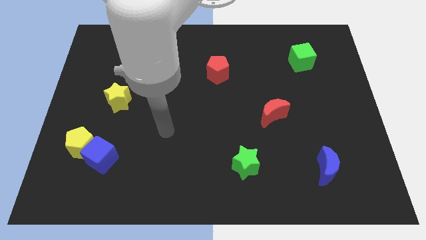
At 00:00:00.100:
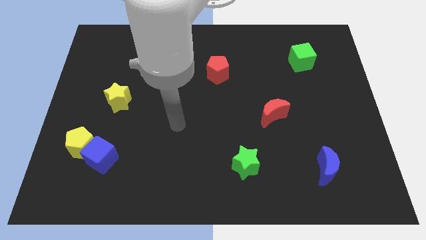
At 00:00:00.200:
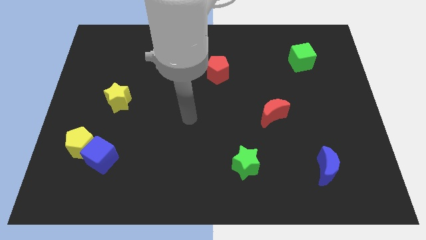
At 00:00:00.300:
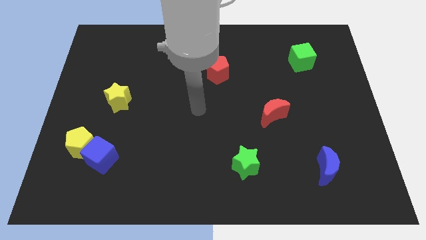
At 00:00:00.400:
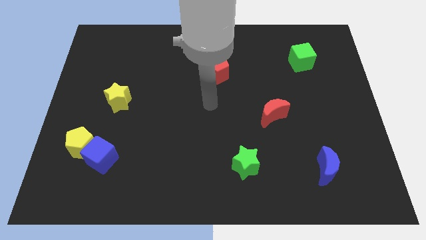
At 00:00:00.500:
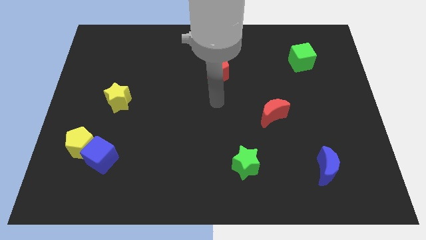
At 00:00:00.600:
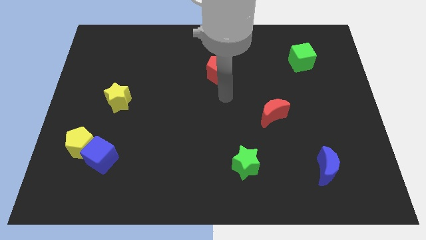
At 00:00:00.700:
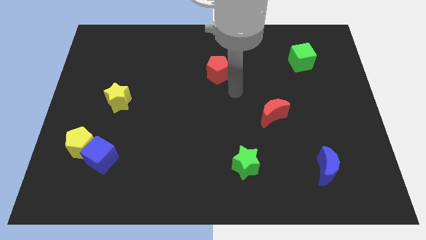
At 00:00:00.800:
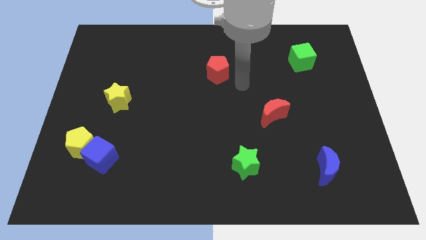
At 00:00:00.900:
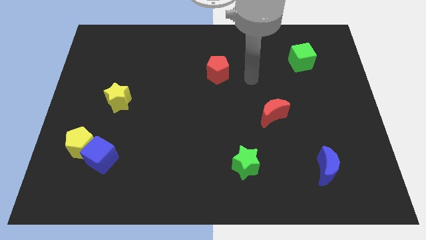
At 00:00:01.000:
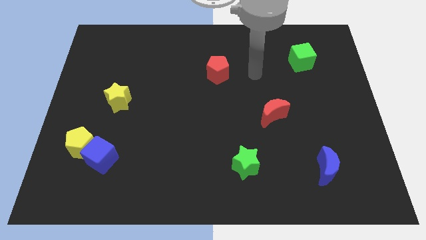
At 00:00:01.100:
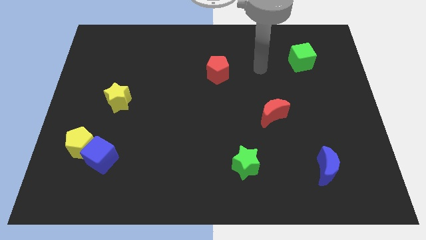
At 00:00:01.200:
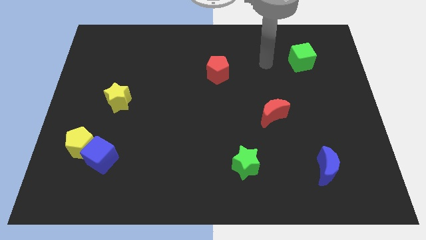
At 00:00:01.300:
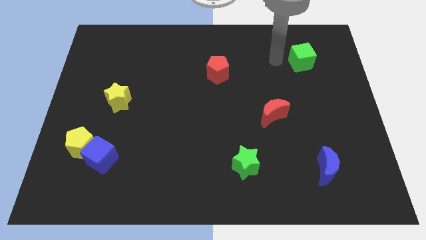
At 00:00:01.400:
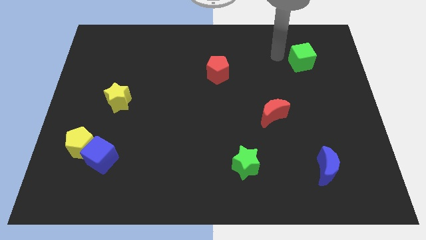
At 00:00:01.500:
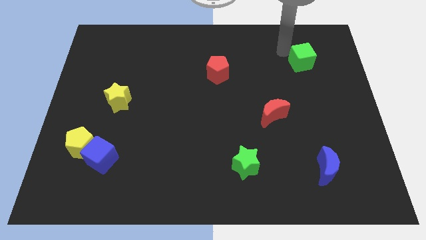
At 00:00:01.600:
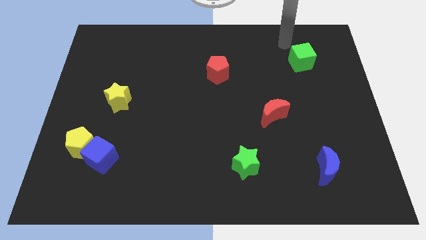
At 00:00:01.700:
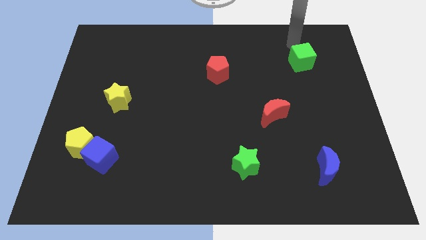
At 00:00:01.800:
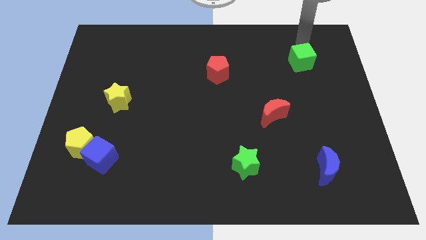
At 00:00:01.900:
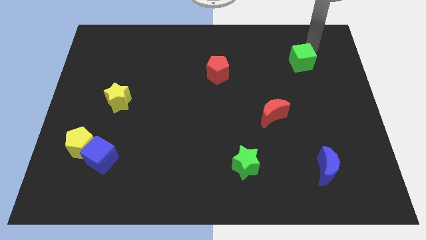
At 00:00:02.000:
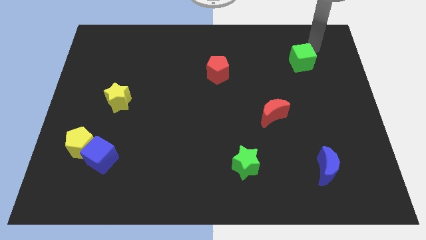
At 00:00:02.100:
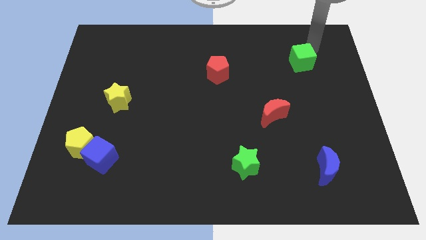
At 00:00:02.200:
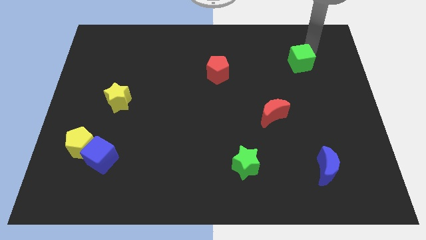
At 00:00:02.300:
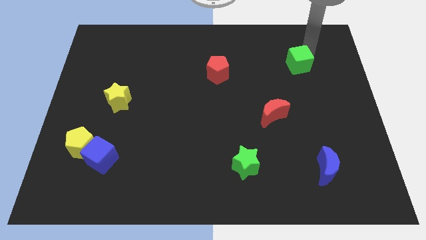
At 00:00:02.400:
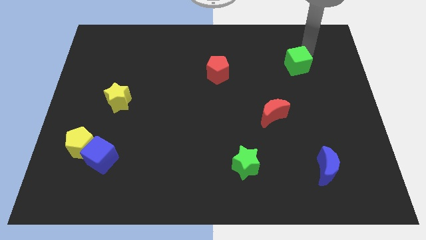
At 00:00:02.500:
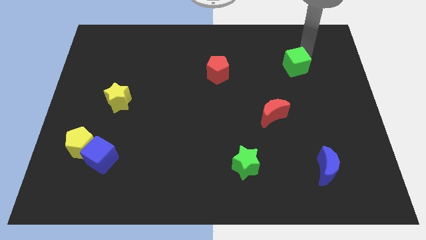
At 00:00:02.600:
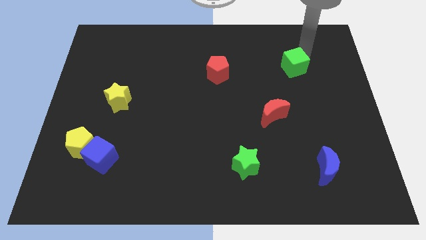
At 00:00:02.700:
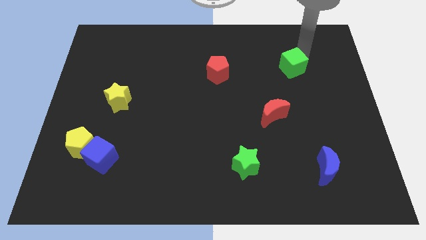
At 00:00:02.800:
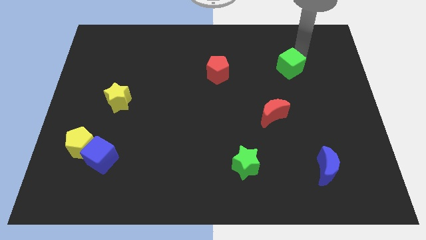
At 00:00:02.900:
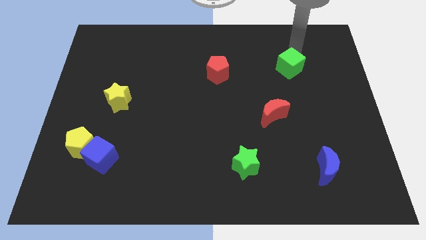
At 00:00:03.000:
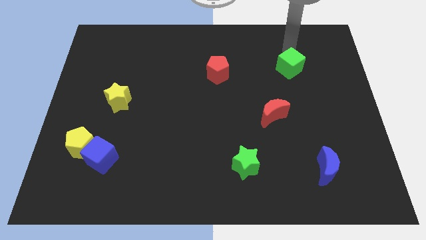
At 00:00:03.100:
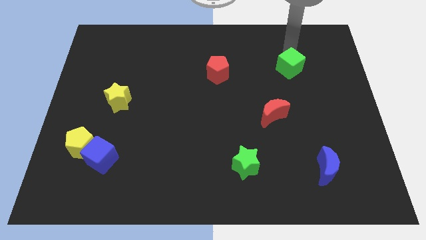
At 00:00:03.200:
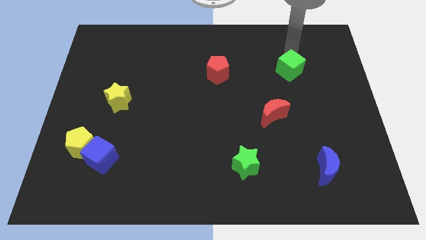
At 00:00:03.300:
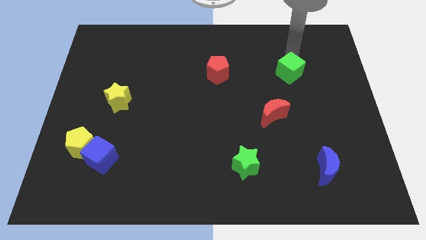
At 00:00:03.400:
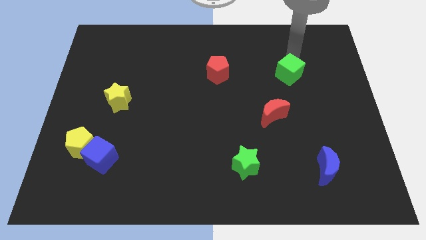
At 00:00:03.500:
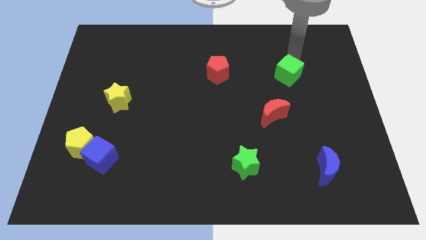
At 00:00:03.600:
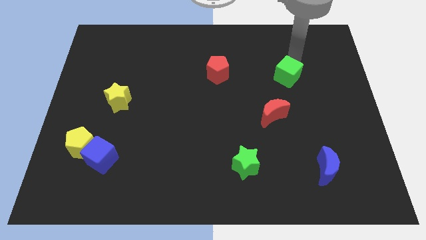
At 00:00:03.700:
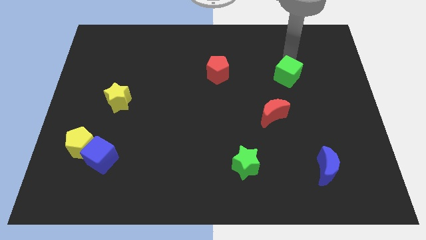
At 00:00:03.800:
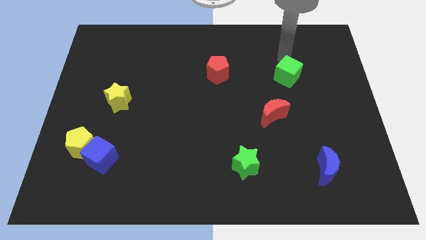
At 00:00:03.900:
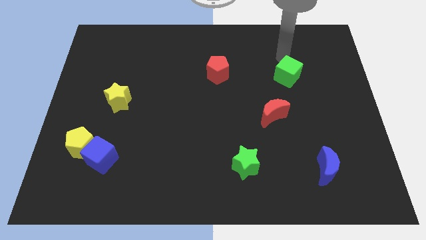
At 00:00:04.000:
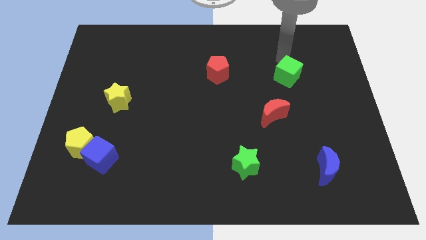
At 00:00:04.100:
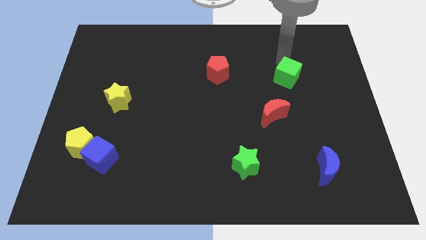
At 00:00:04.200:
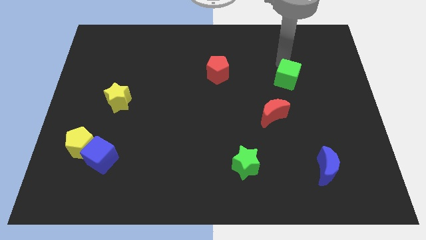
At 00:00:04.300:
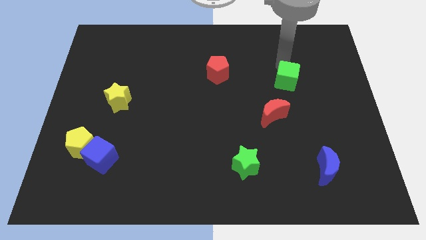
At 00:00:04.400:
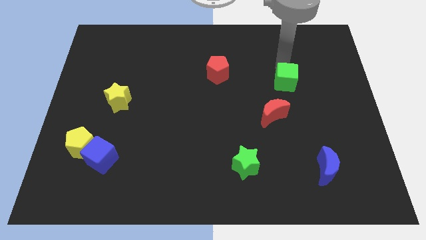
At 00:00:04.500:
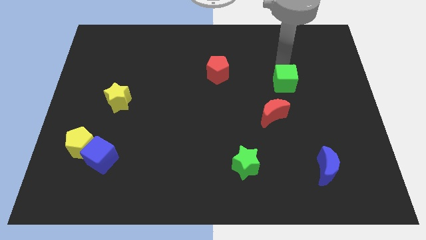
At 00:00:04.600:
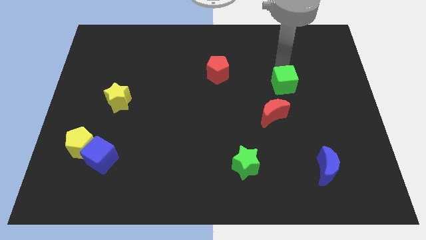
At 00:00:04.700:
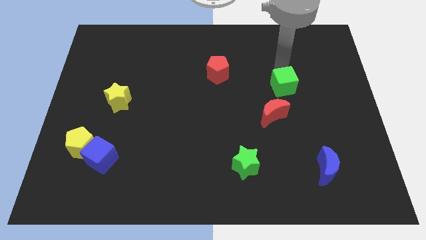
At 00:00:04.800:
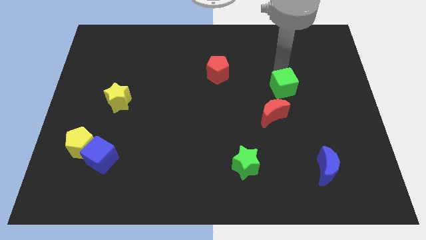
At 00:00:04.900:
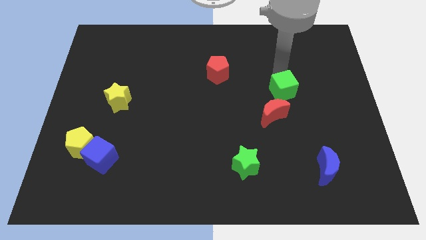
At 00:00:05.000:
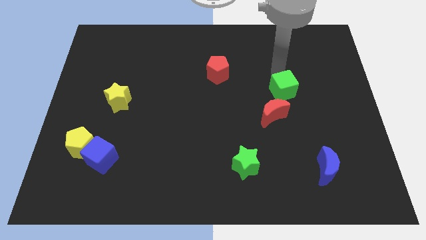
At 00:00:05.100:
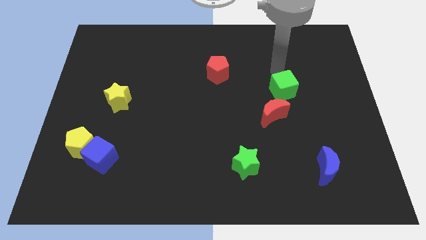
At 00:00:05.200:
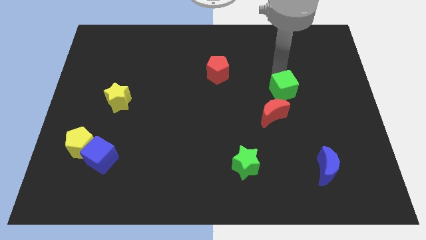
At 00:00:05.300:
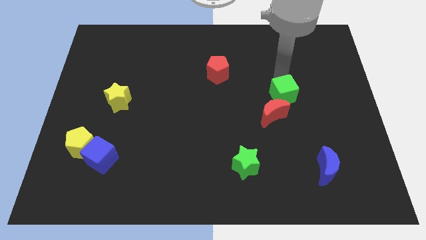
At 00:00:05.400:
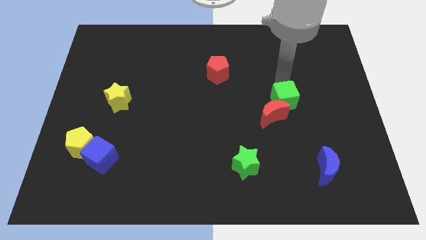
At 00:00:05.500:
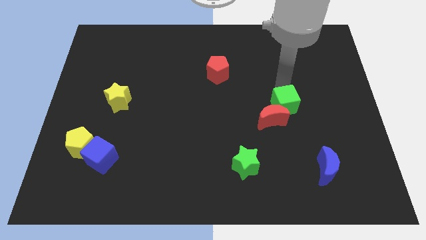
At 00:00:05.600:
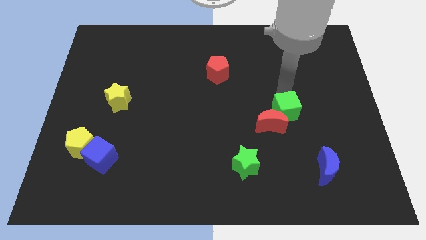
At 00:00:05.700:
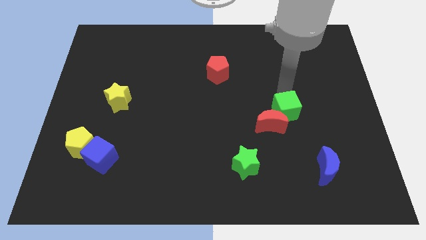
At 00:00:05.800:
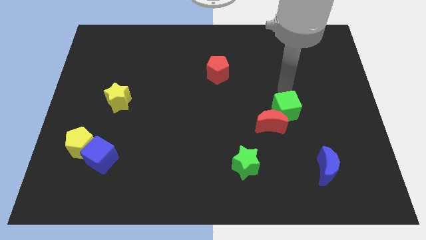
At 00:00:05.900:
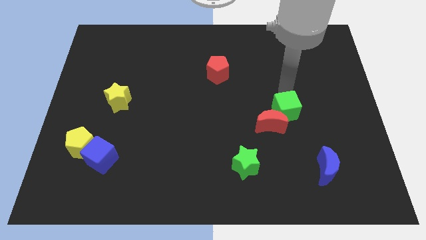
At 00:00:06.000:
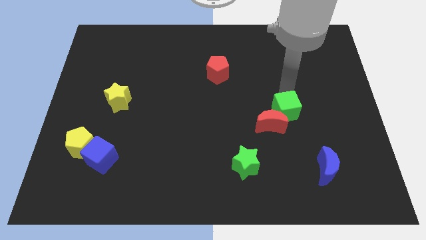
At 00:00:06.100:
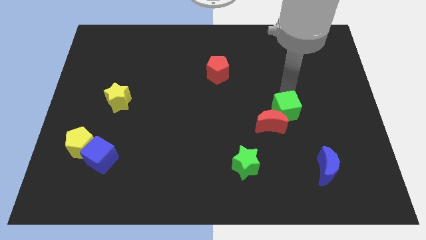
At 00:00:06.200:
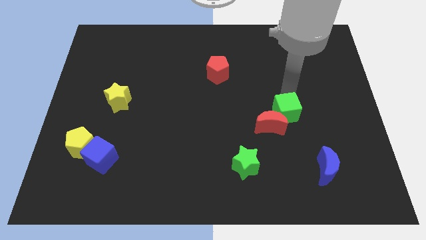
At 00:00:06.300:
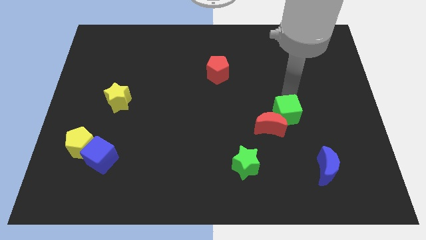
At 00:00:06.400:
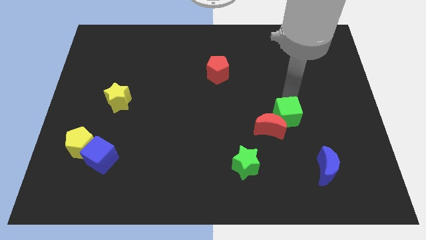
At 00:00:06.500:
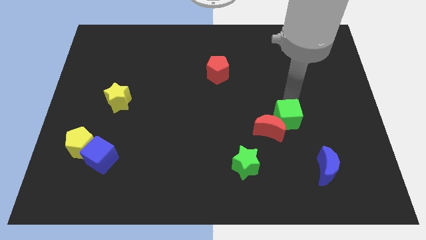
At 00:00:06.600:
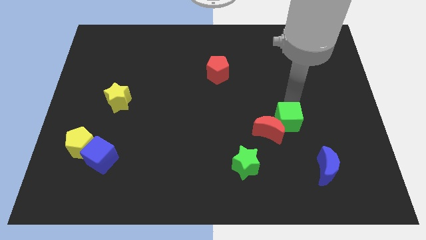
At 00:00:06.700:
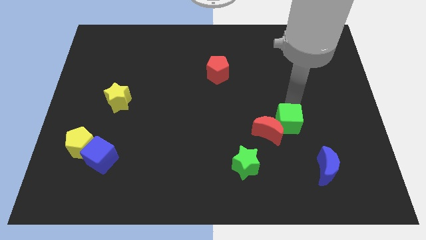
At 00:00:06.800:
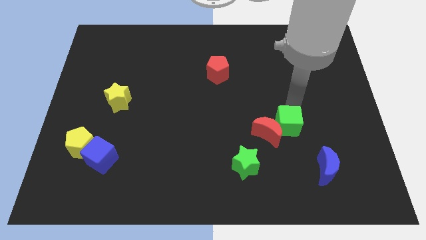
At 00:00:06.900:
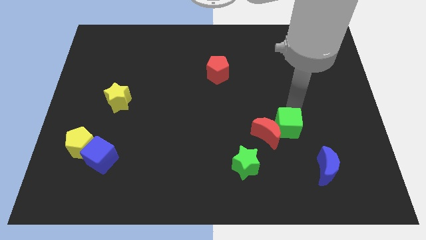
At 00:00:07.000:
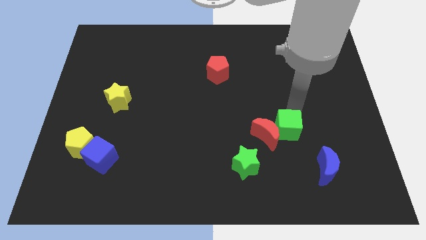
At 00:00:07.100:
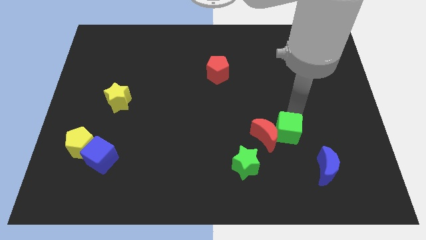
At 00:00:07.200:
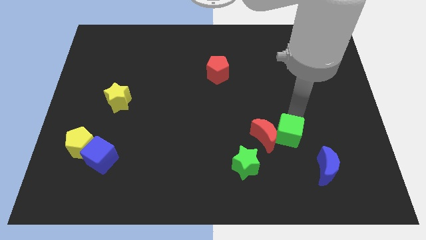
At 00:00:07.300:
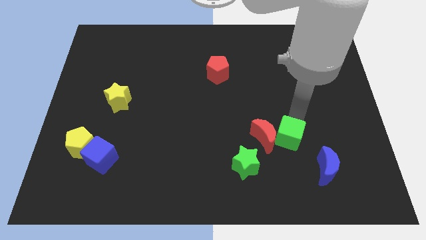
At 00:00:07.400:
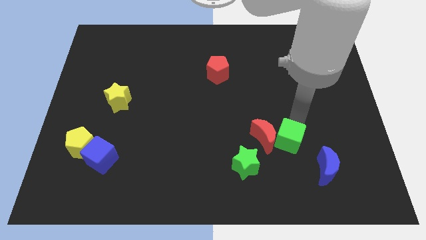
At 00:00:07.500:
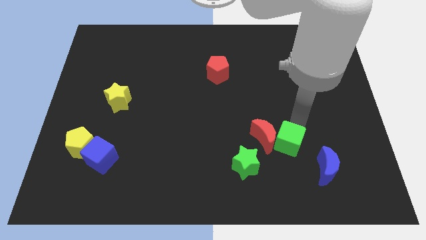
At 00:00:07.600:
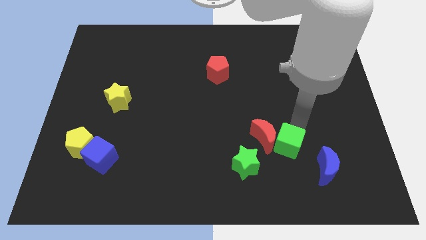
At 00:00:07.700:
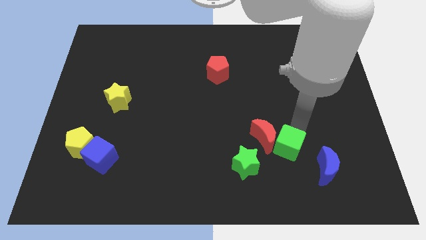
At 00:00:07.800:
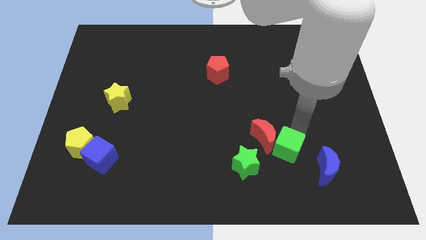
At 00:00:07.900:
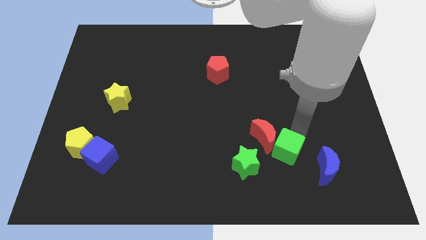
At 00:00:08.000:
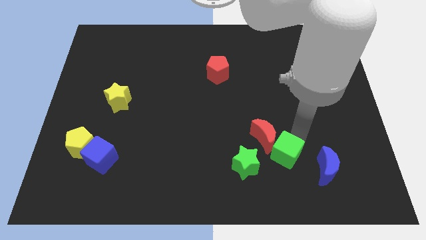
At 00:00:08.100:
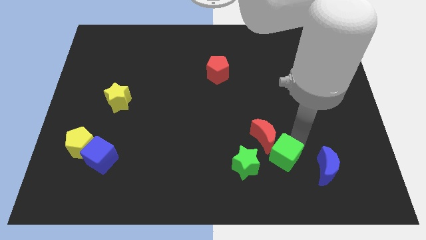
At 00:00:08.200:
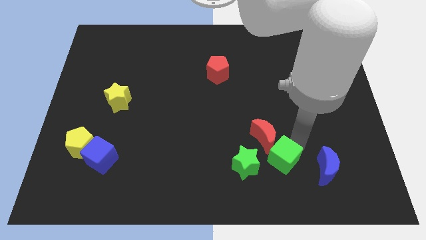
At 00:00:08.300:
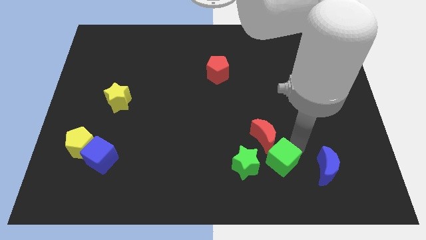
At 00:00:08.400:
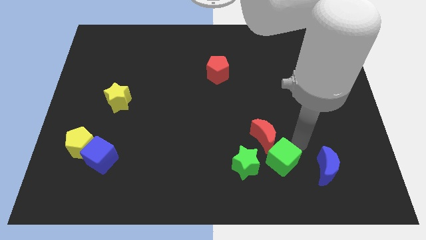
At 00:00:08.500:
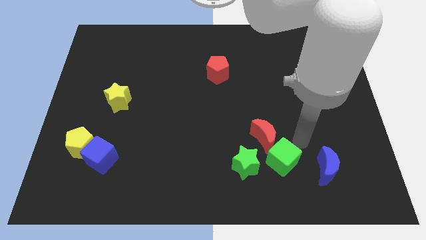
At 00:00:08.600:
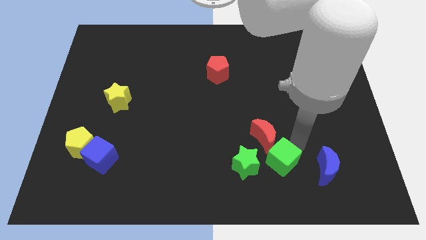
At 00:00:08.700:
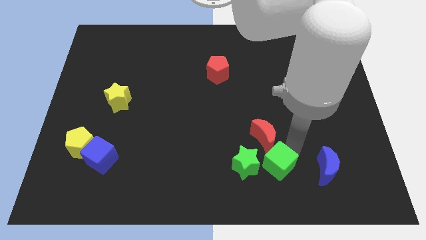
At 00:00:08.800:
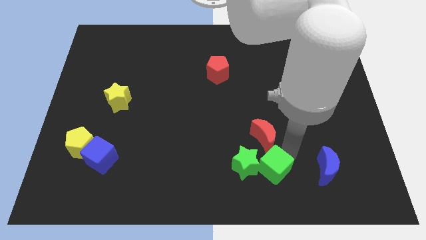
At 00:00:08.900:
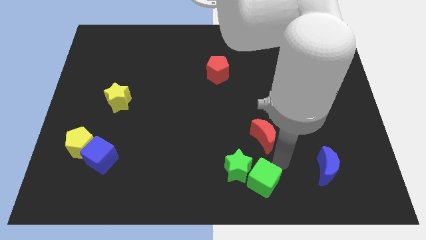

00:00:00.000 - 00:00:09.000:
push the green cube to the bottom
